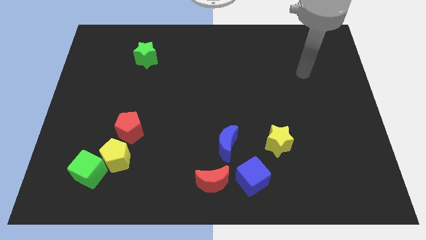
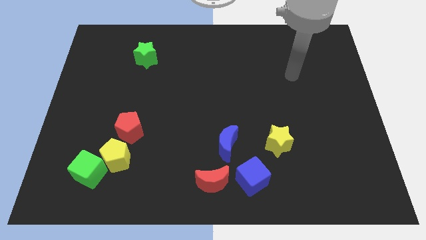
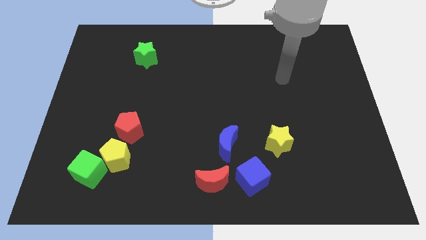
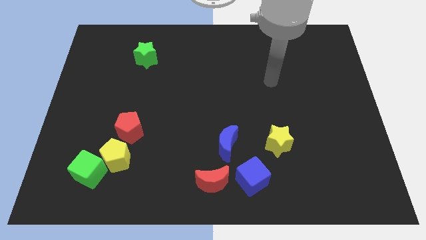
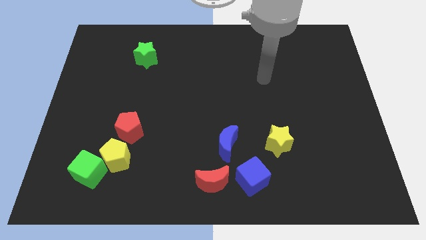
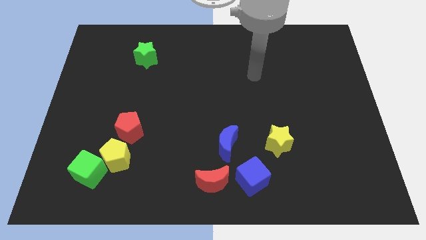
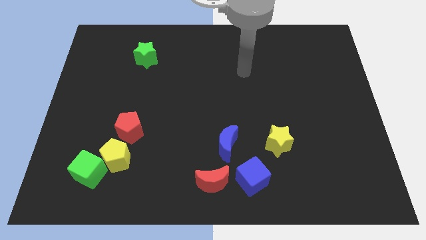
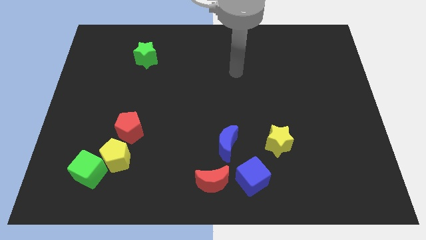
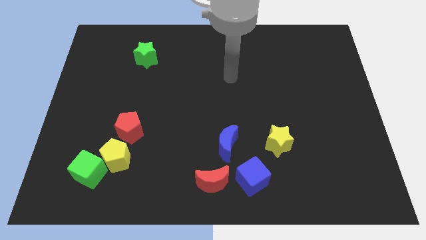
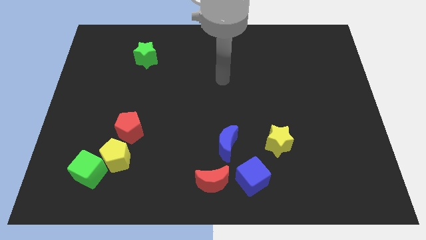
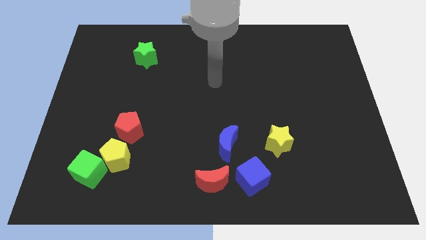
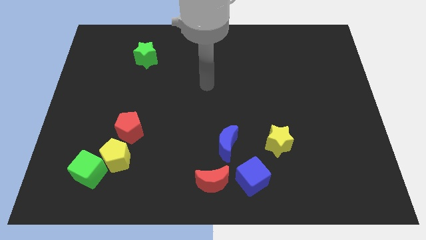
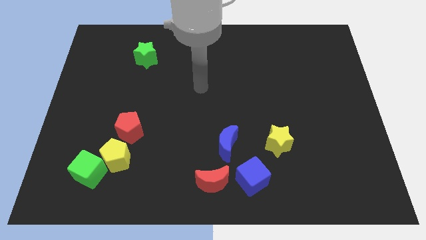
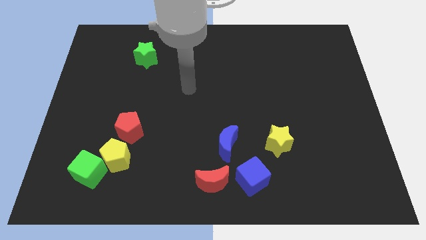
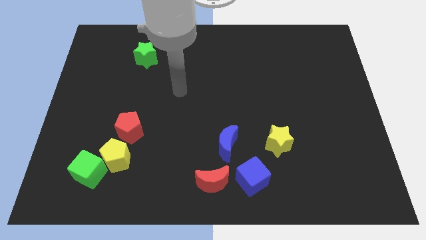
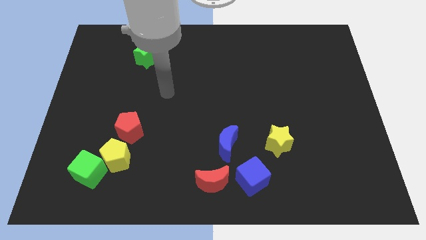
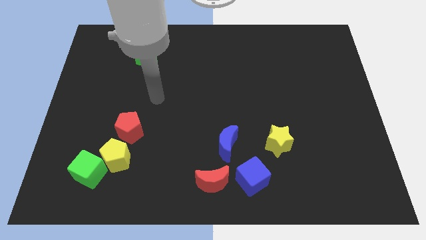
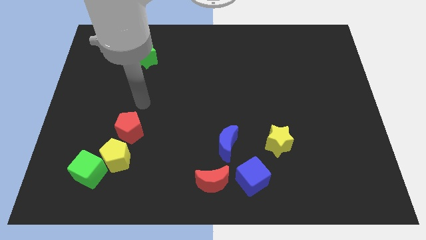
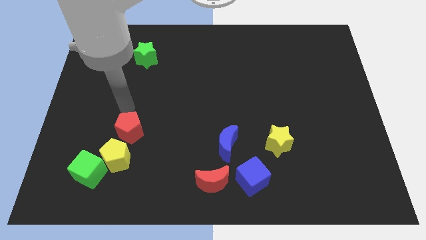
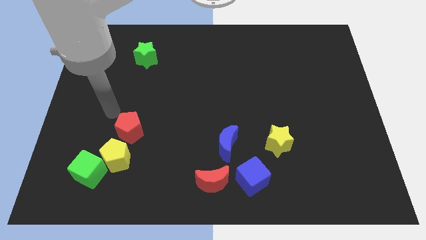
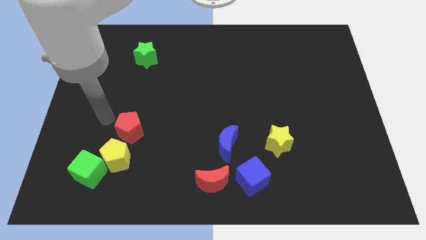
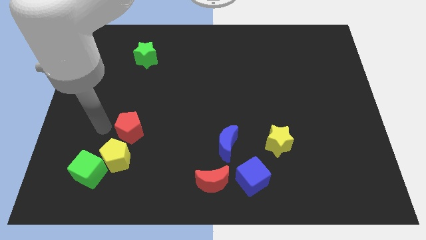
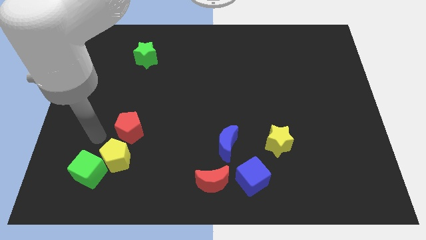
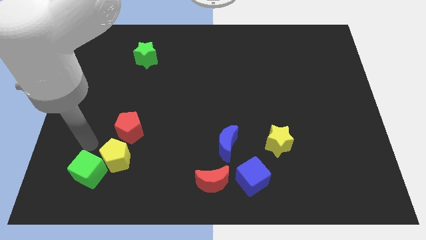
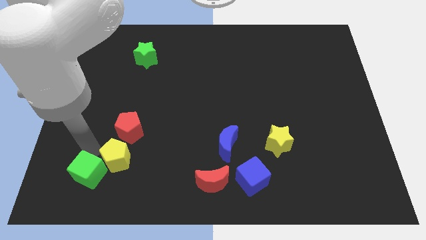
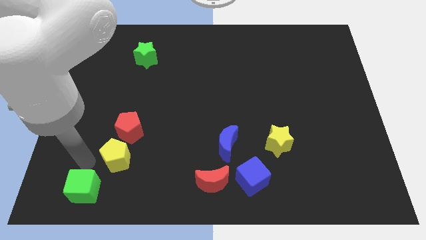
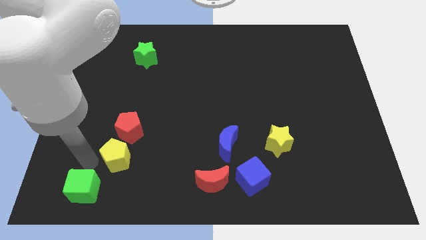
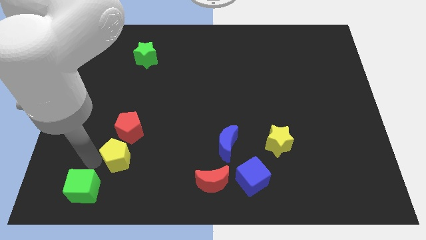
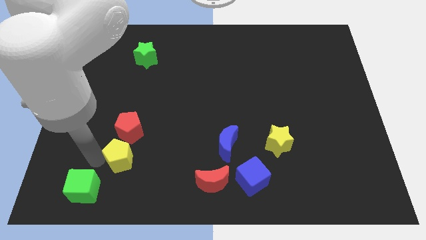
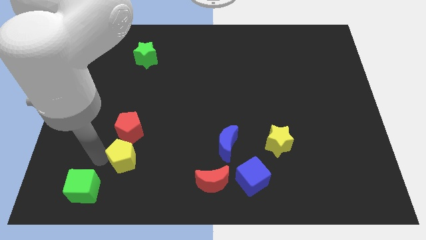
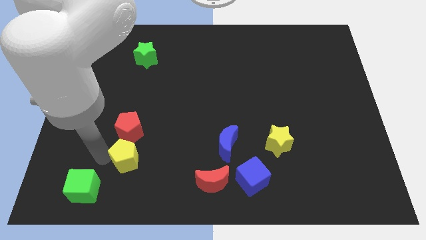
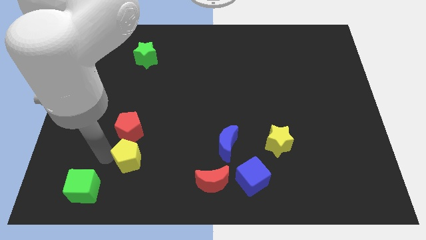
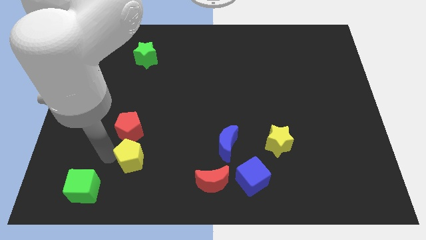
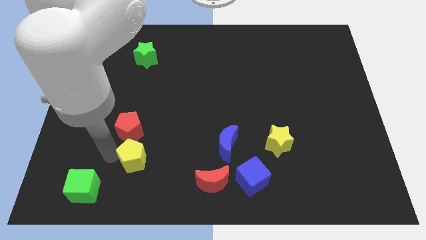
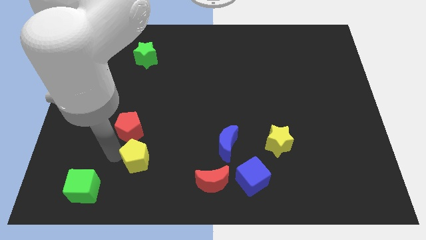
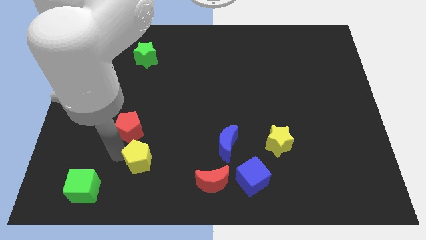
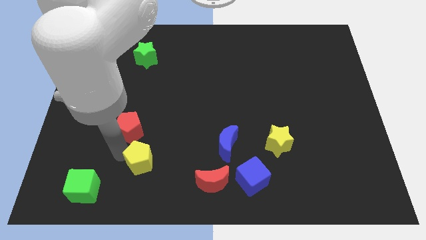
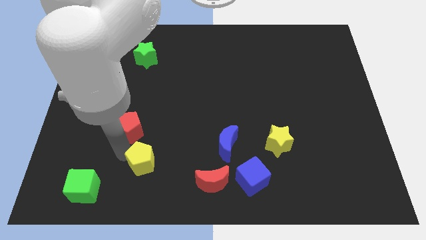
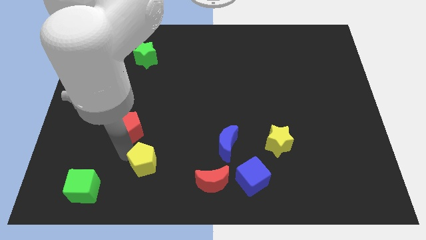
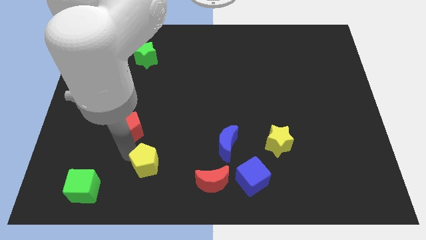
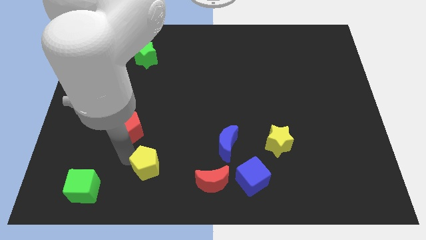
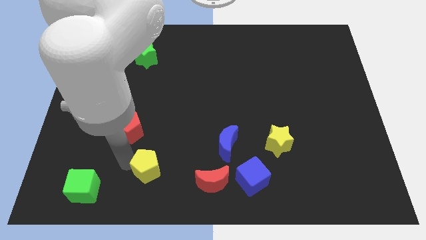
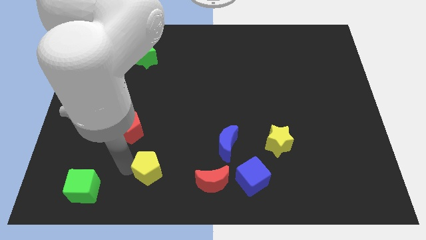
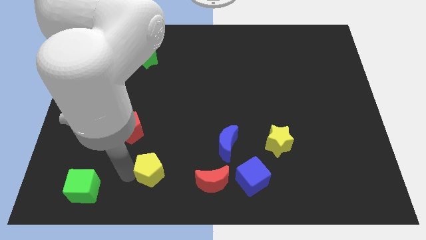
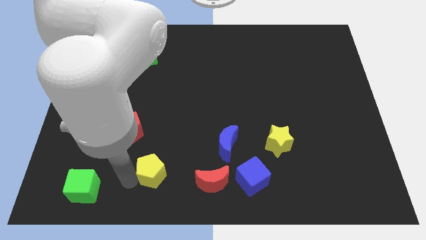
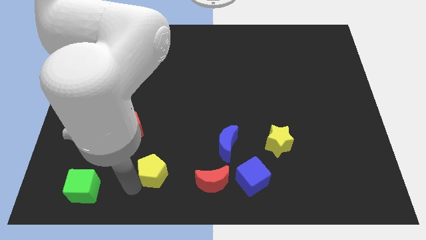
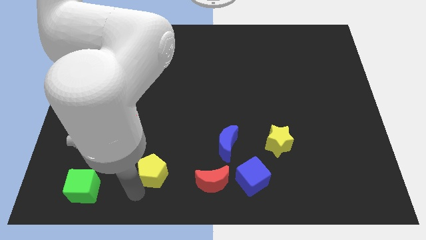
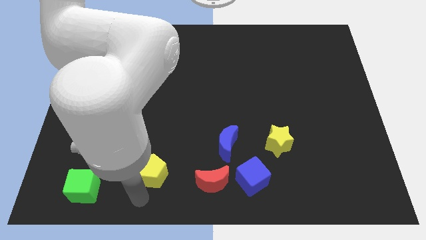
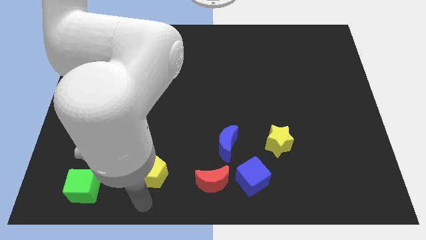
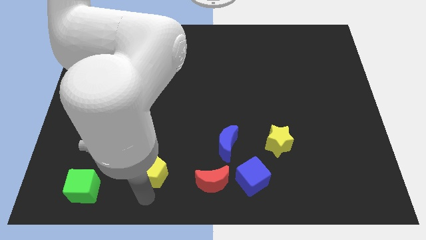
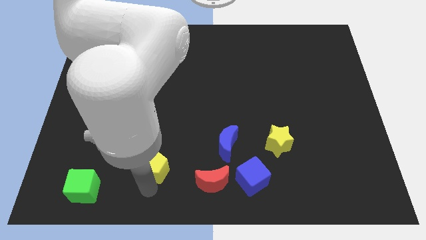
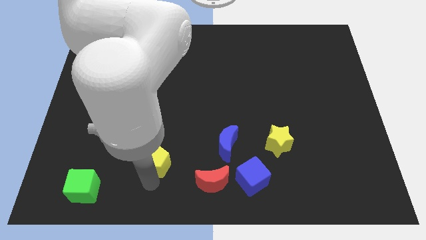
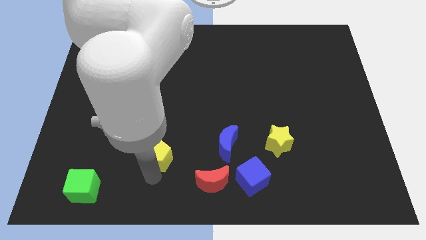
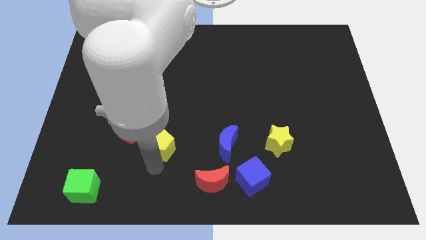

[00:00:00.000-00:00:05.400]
slide the yellow pentagon just right of the red pentagon

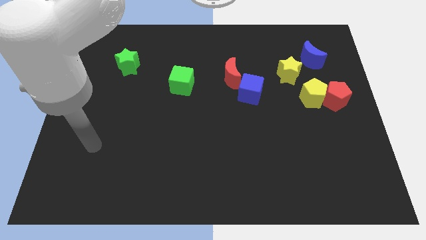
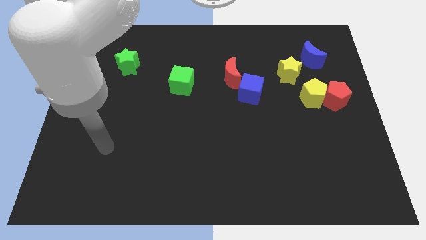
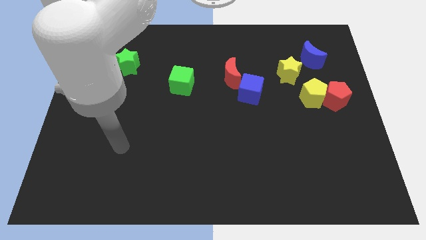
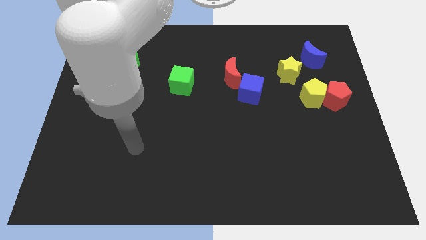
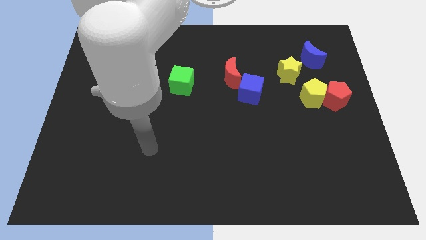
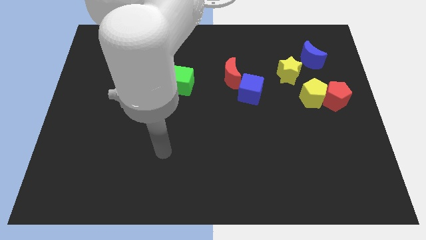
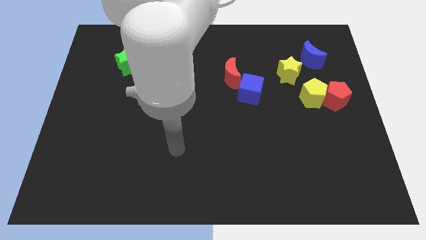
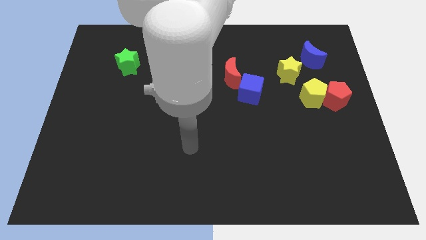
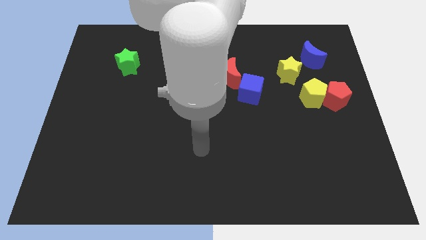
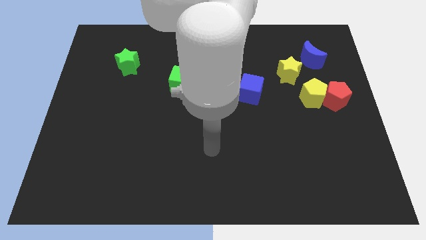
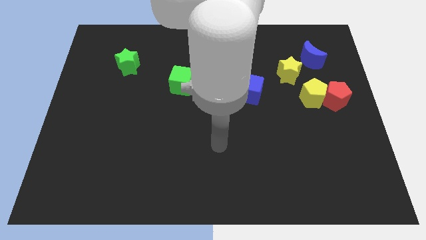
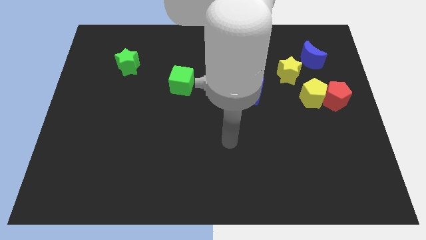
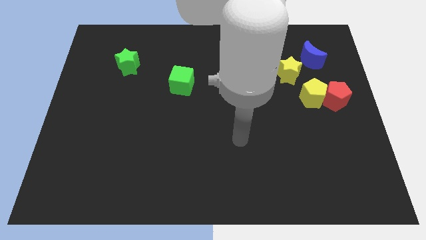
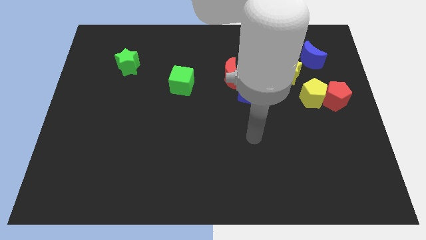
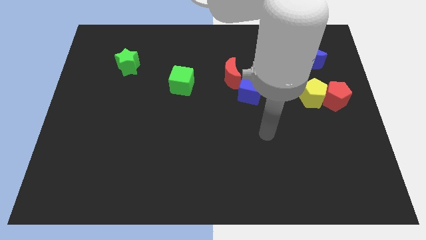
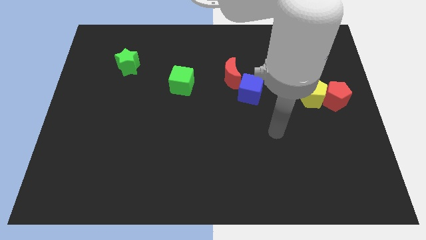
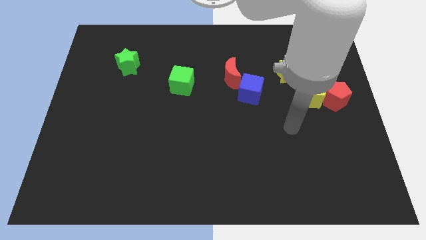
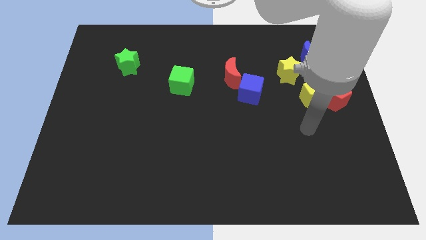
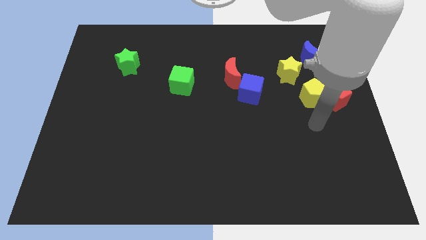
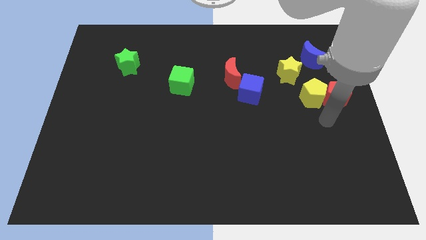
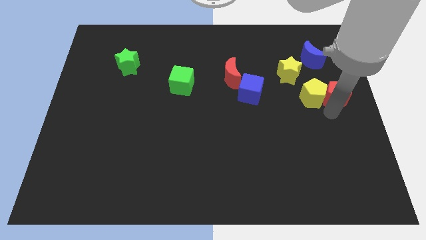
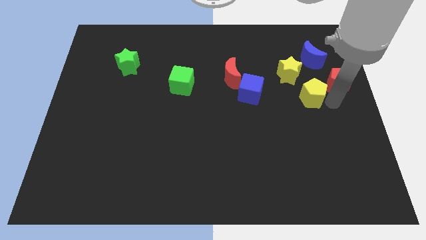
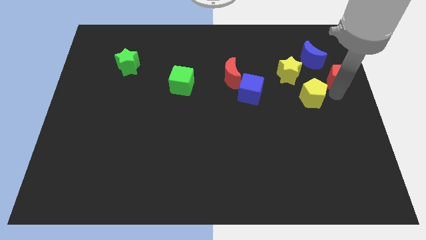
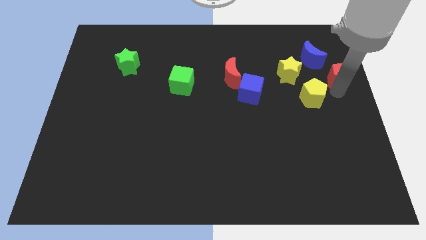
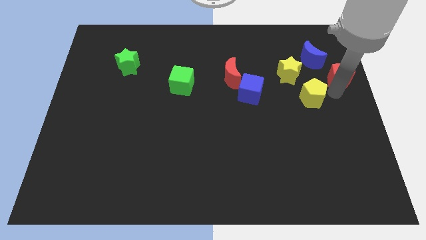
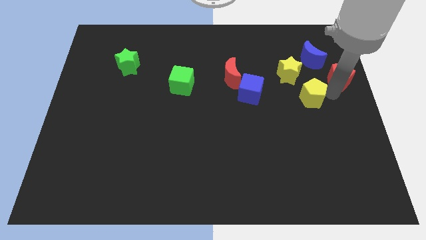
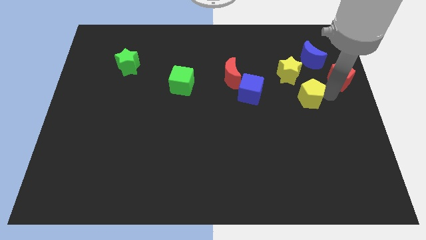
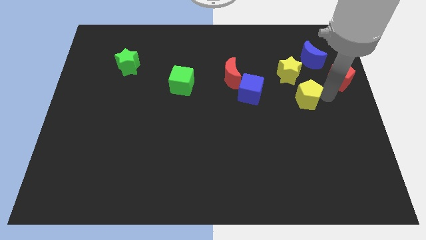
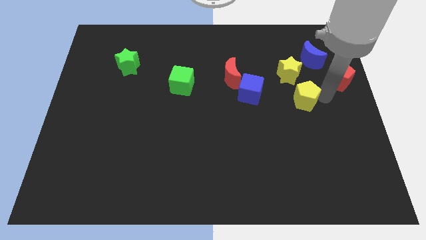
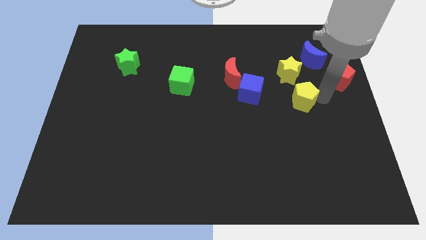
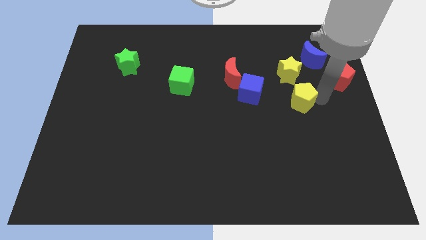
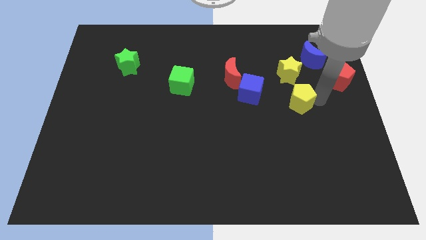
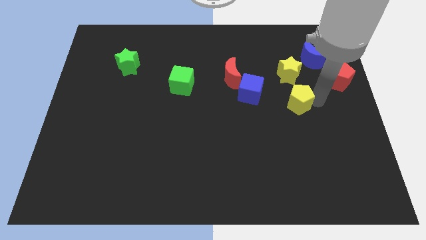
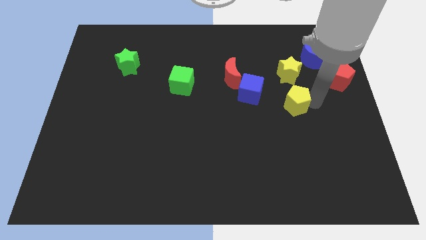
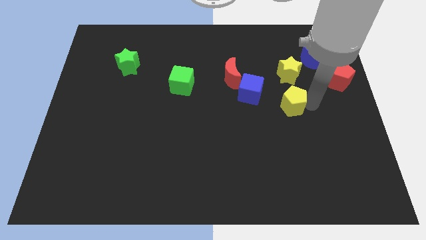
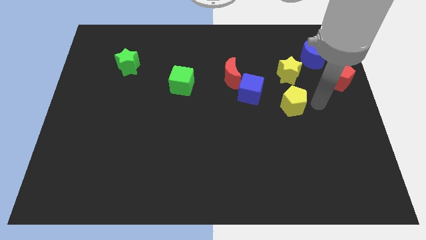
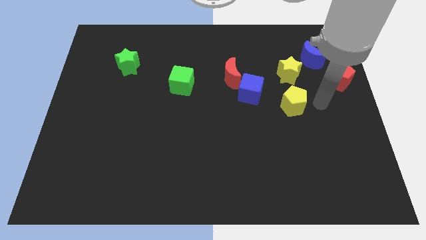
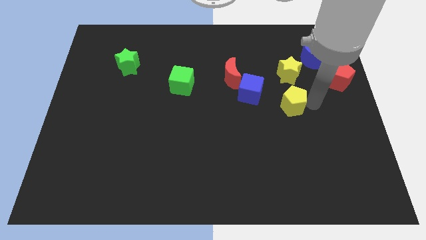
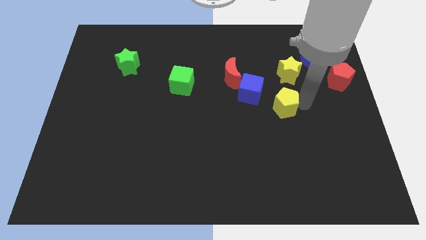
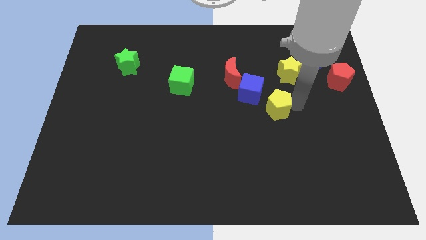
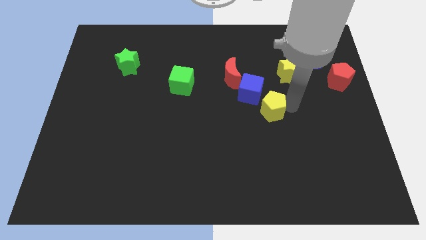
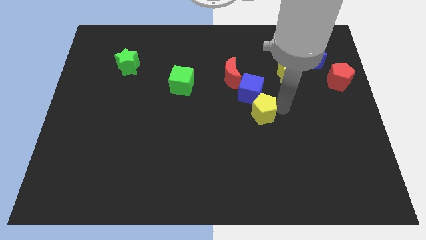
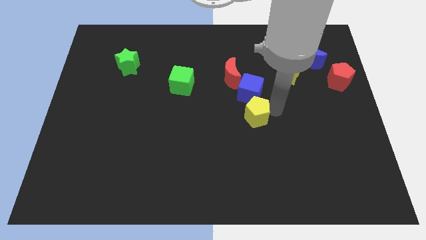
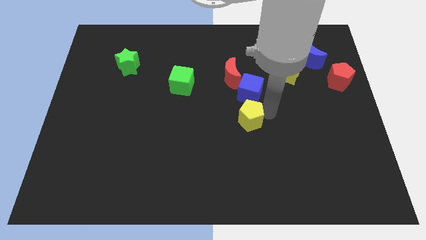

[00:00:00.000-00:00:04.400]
move the yellow pentagon to the bottom of the red moon
